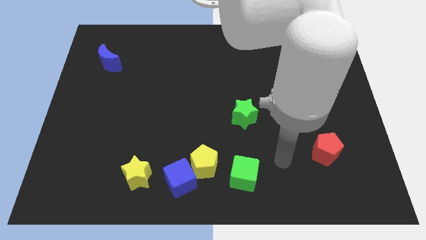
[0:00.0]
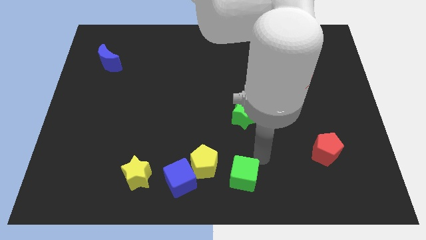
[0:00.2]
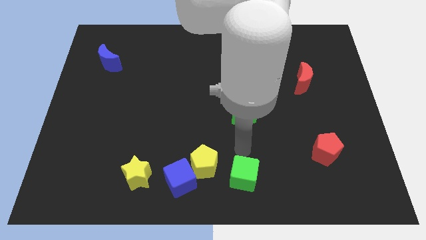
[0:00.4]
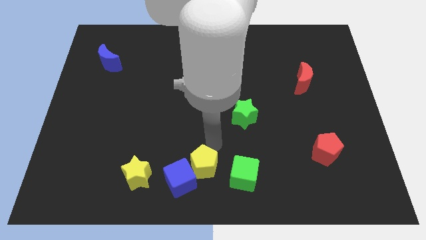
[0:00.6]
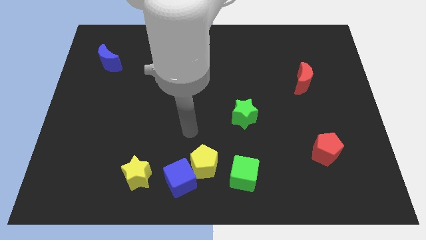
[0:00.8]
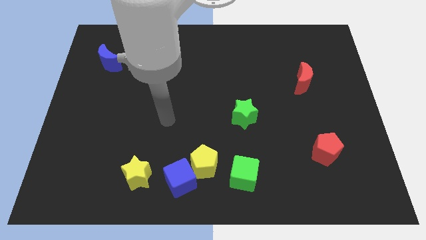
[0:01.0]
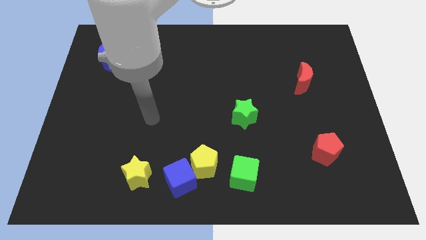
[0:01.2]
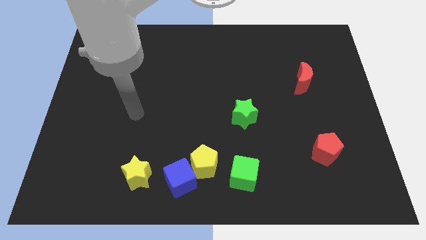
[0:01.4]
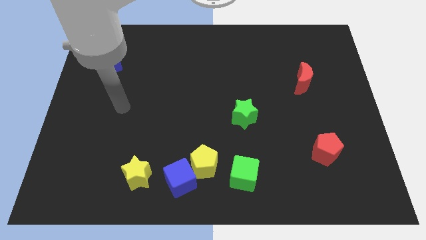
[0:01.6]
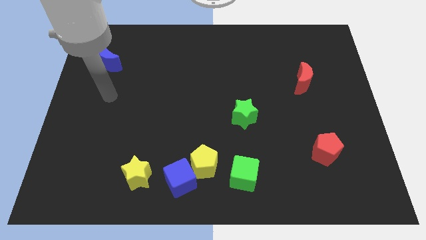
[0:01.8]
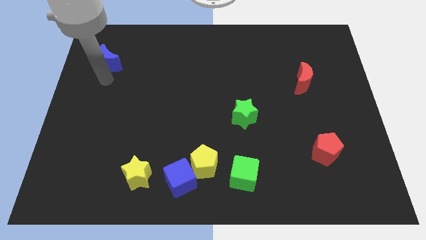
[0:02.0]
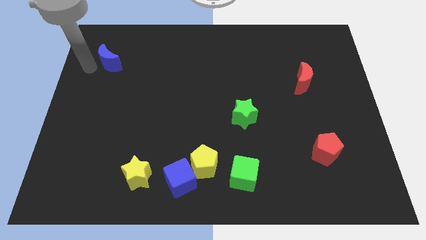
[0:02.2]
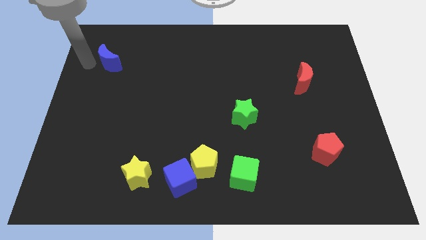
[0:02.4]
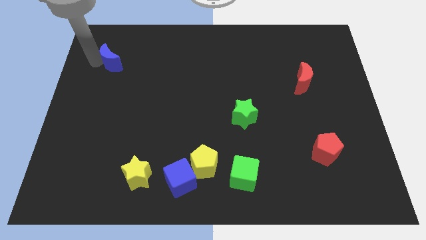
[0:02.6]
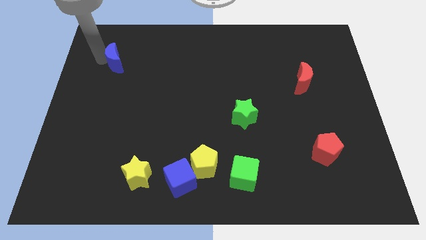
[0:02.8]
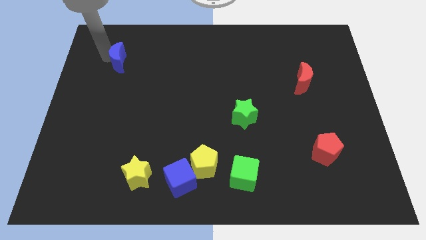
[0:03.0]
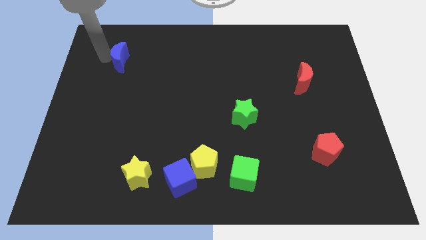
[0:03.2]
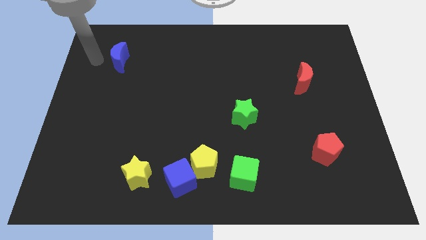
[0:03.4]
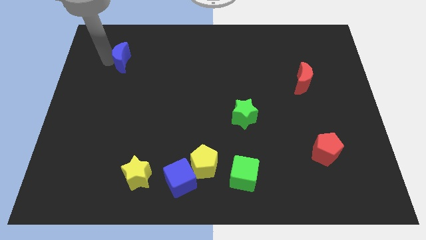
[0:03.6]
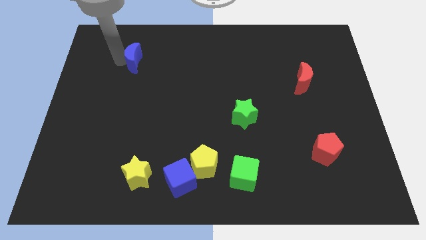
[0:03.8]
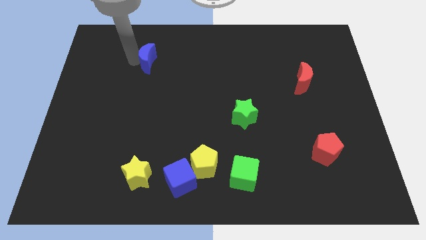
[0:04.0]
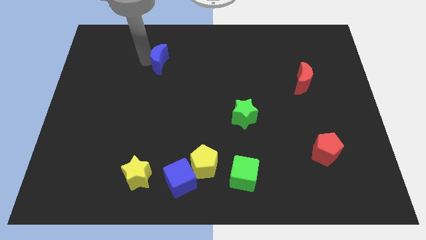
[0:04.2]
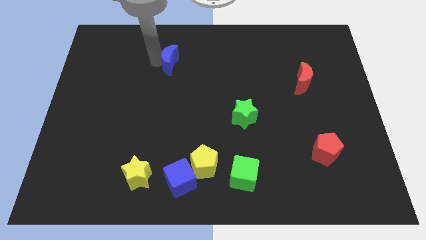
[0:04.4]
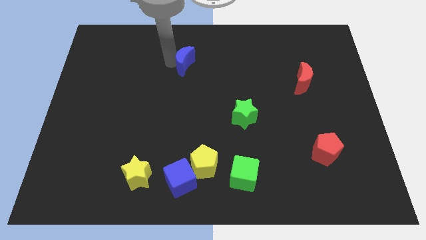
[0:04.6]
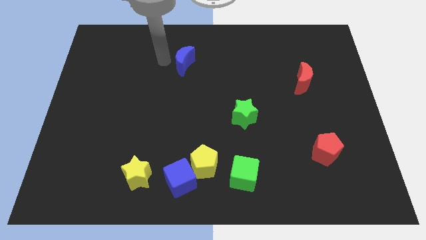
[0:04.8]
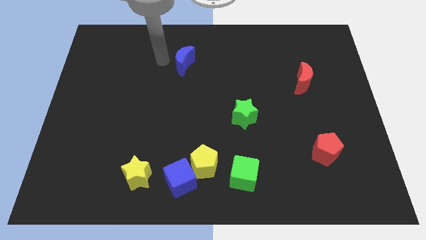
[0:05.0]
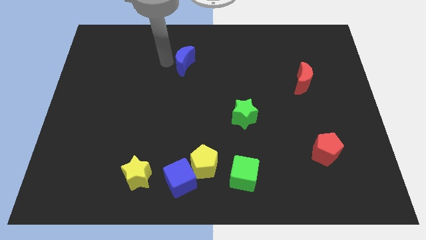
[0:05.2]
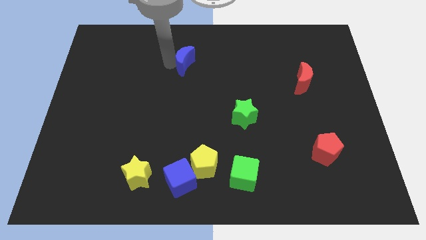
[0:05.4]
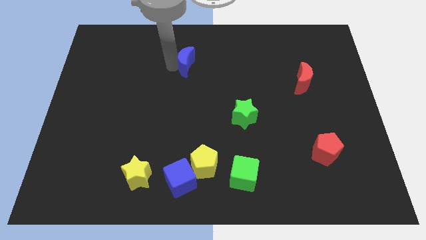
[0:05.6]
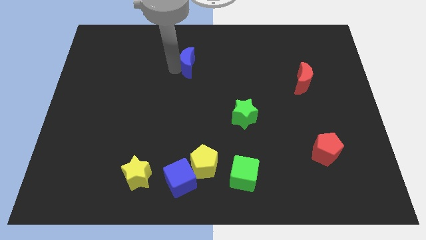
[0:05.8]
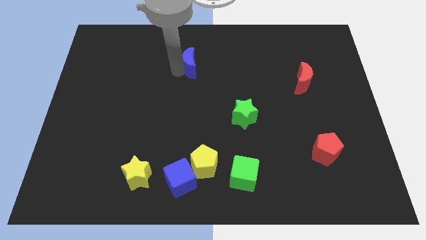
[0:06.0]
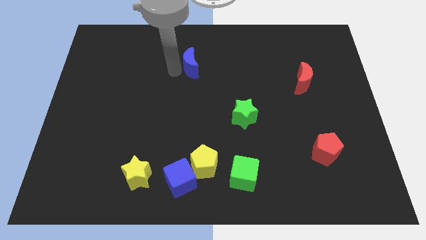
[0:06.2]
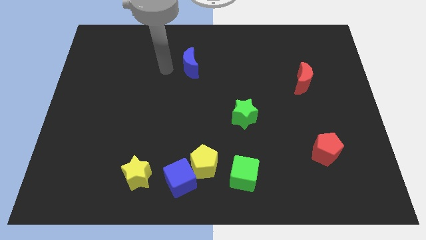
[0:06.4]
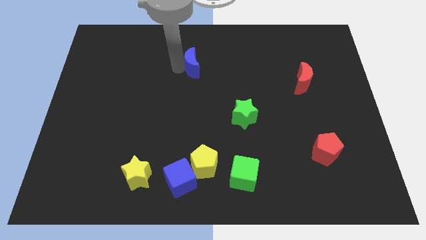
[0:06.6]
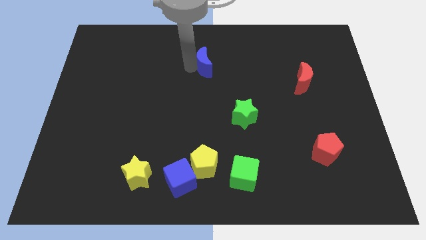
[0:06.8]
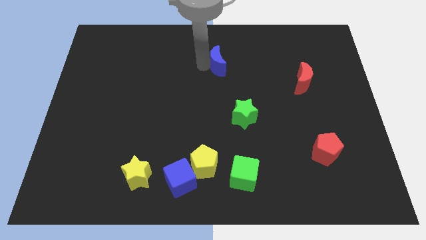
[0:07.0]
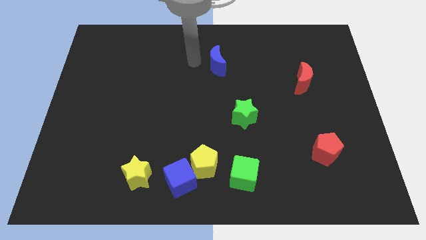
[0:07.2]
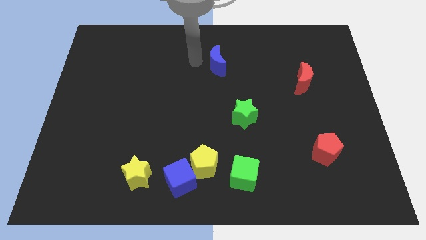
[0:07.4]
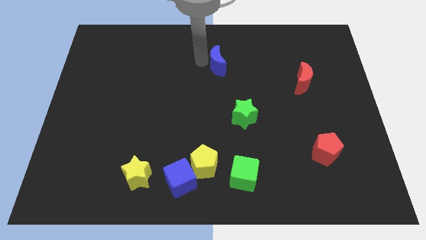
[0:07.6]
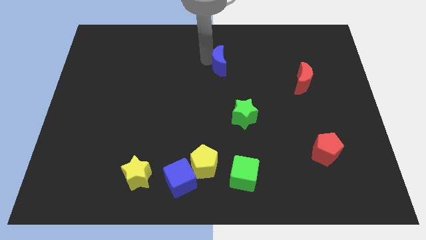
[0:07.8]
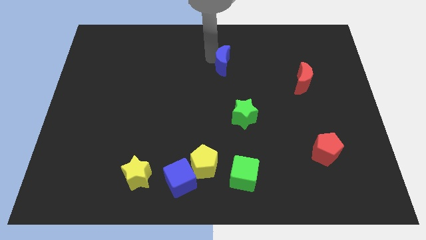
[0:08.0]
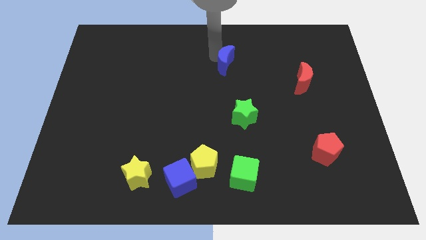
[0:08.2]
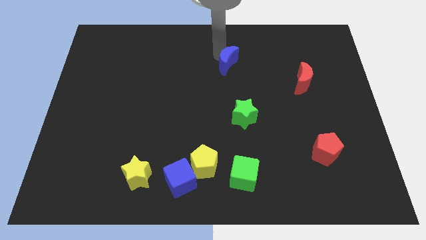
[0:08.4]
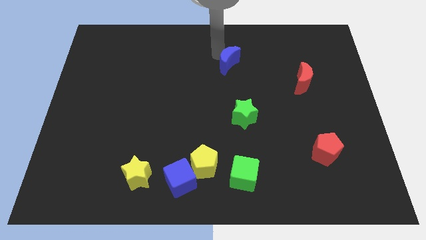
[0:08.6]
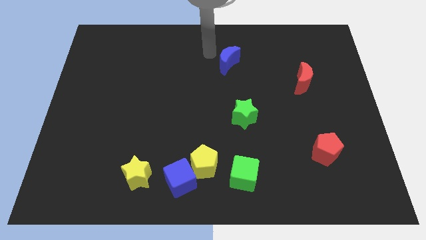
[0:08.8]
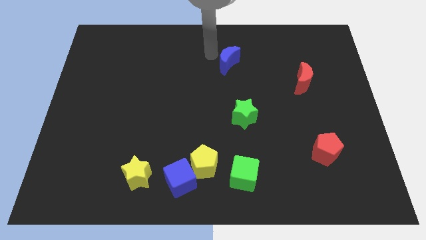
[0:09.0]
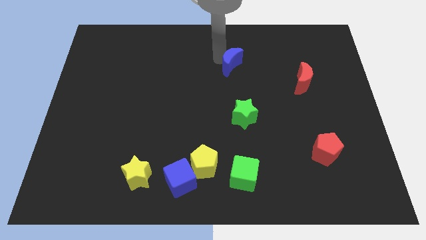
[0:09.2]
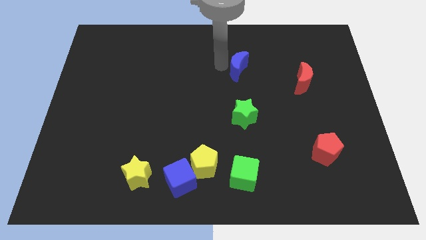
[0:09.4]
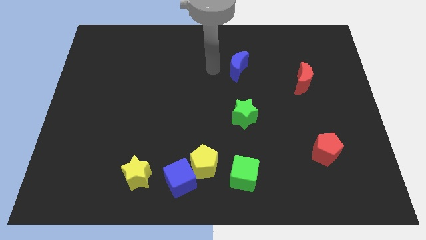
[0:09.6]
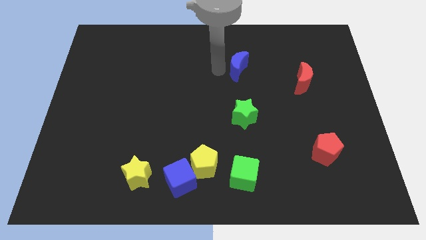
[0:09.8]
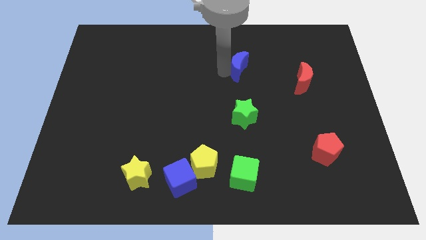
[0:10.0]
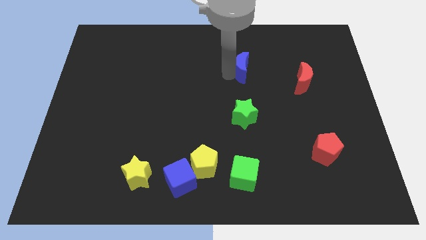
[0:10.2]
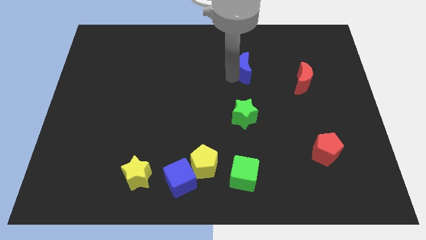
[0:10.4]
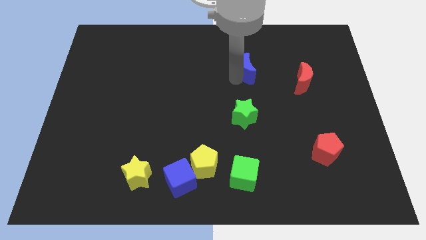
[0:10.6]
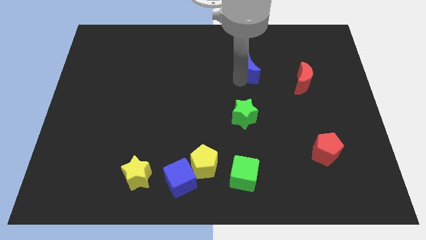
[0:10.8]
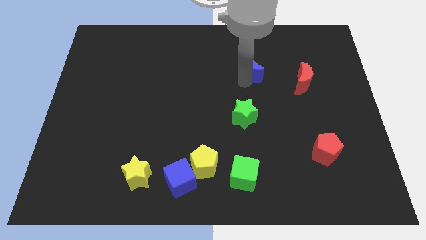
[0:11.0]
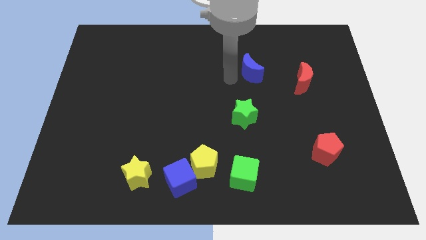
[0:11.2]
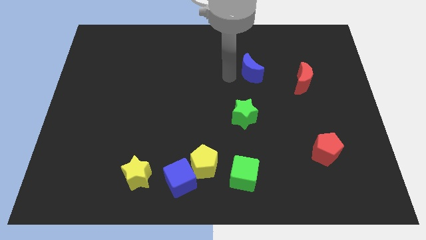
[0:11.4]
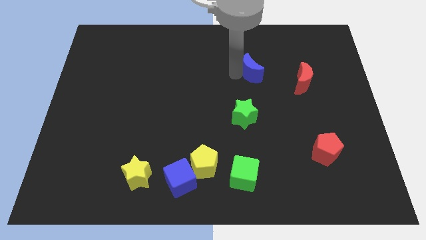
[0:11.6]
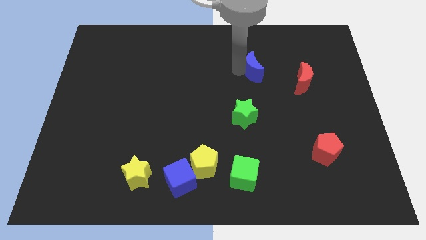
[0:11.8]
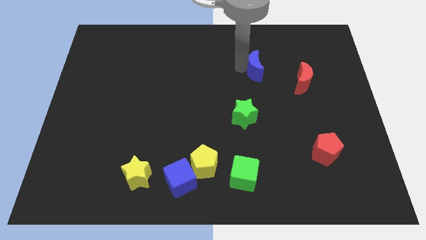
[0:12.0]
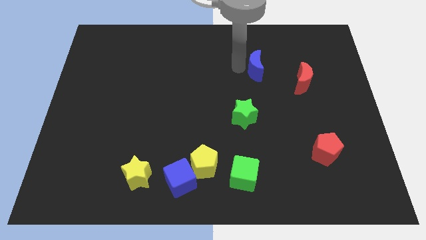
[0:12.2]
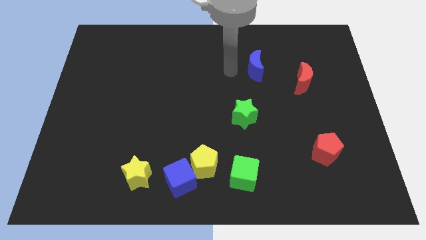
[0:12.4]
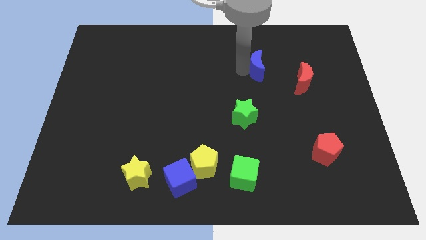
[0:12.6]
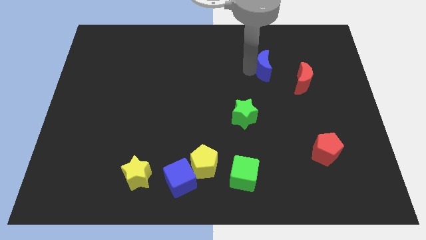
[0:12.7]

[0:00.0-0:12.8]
slide the blue moon to the top left of the red moon

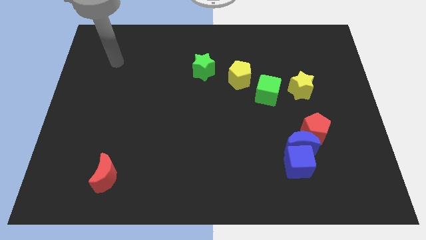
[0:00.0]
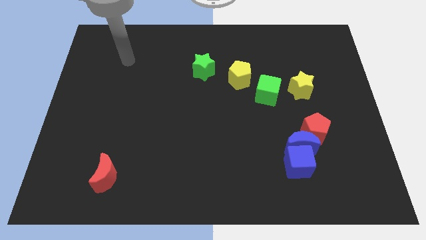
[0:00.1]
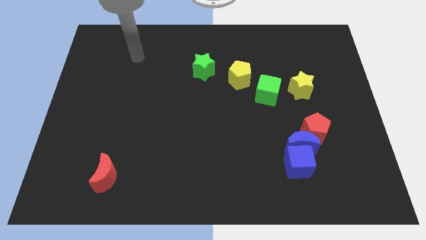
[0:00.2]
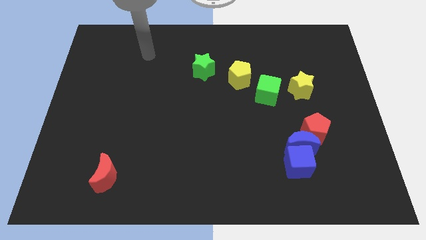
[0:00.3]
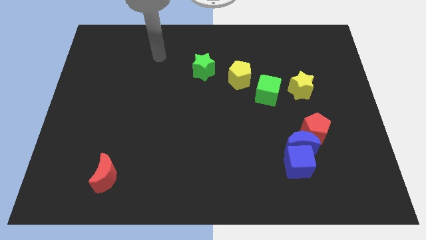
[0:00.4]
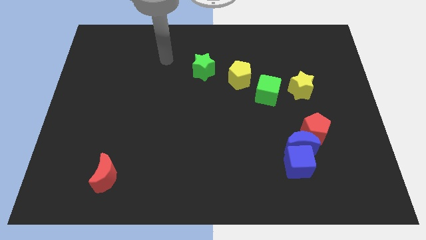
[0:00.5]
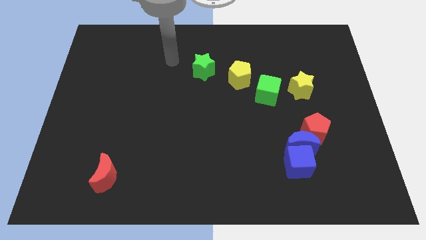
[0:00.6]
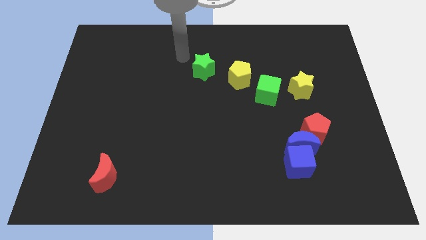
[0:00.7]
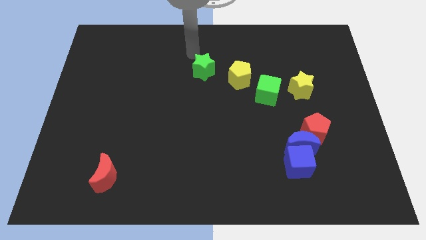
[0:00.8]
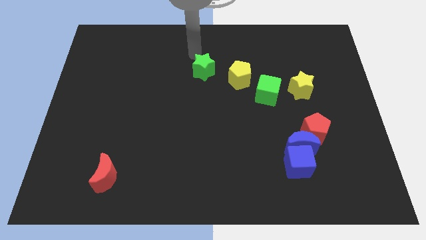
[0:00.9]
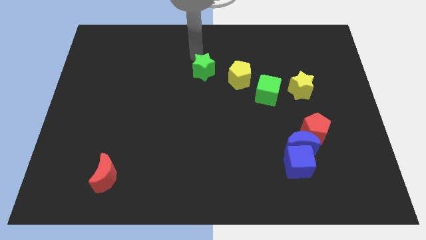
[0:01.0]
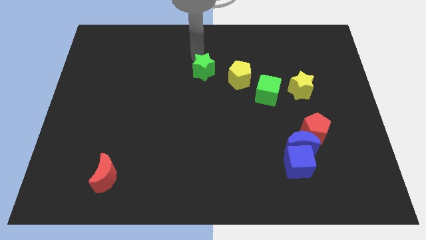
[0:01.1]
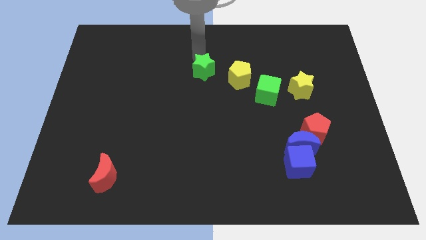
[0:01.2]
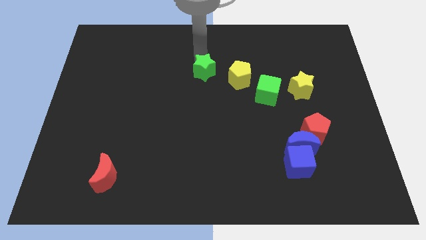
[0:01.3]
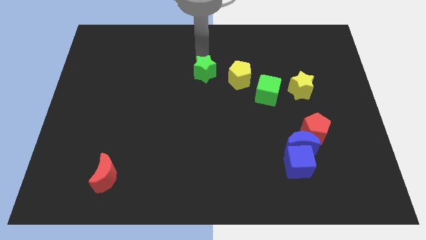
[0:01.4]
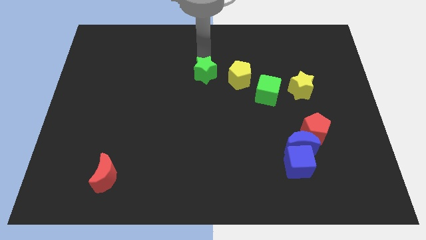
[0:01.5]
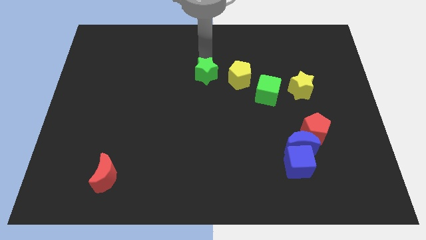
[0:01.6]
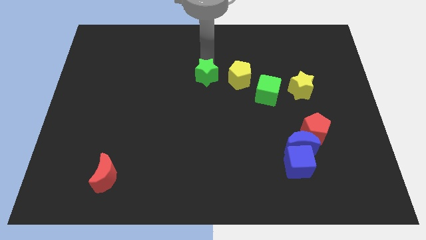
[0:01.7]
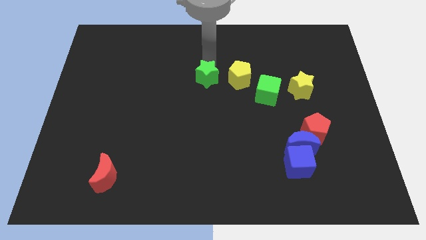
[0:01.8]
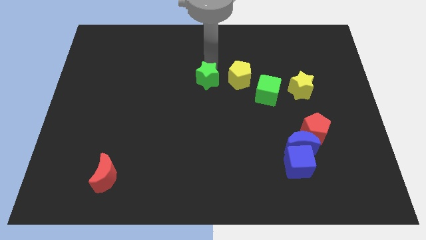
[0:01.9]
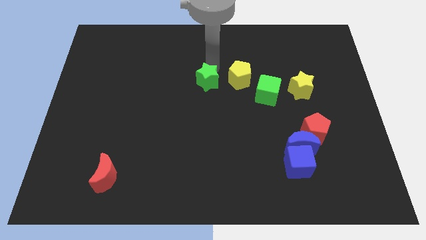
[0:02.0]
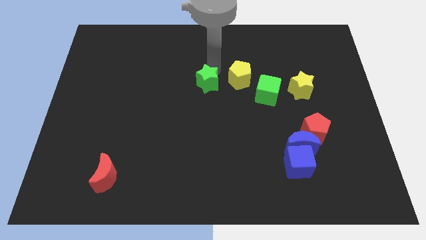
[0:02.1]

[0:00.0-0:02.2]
move the green star to the bottom left side of the yellow pentagon
